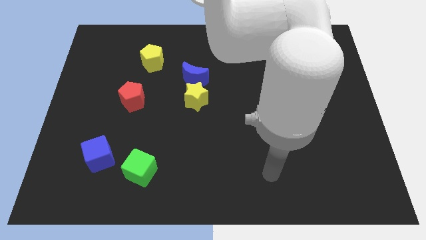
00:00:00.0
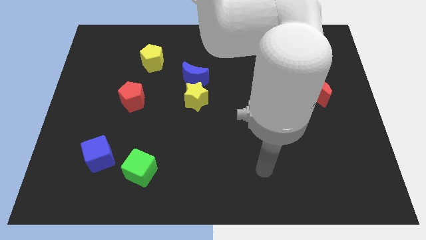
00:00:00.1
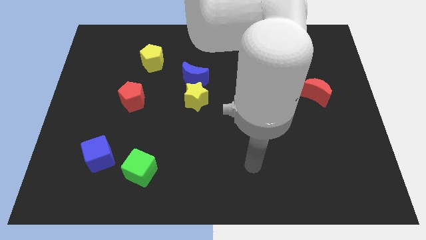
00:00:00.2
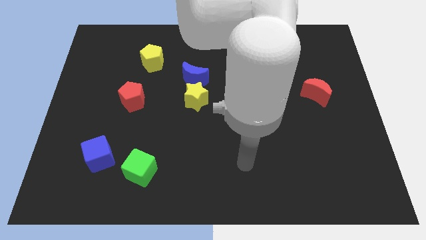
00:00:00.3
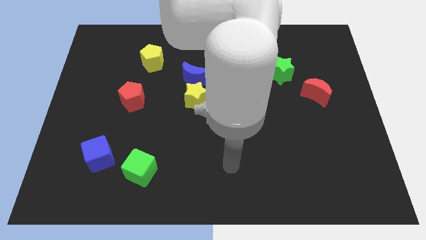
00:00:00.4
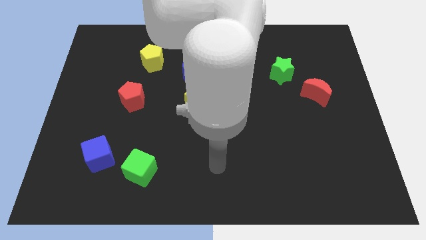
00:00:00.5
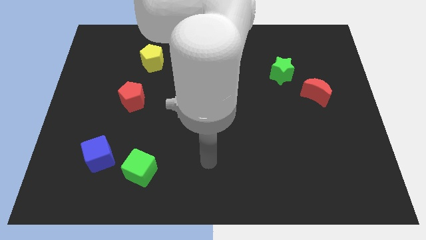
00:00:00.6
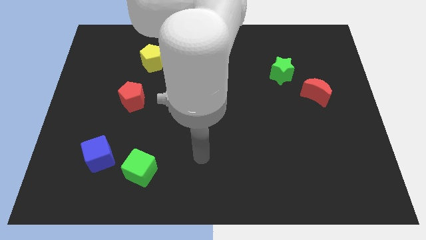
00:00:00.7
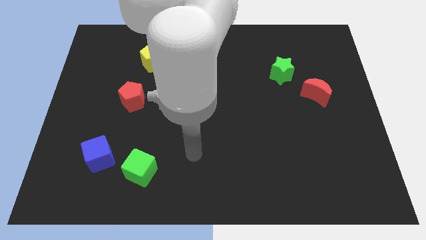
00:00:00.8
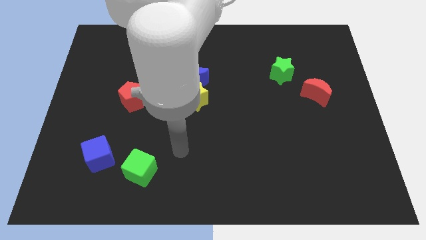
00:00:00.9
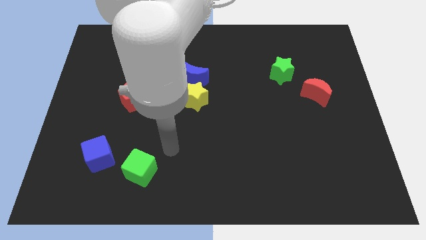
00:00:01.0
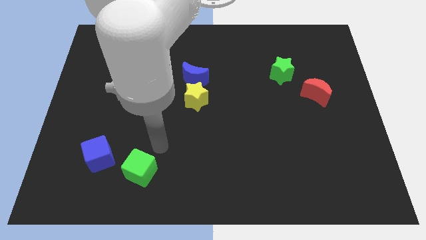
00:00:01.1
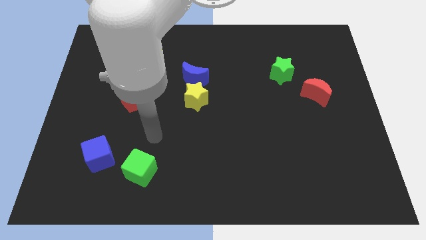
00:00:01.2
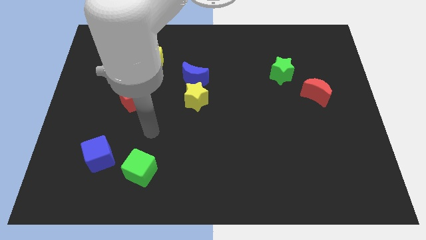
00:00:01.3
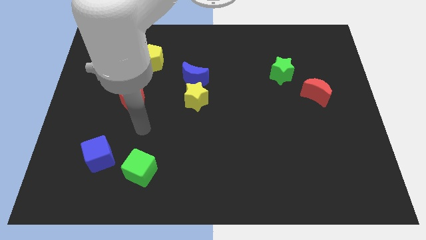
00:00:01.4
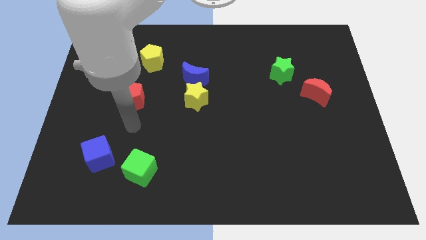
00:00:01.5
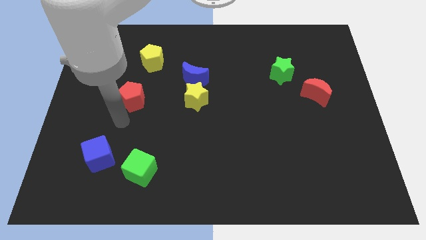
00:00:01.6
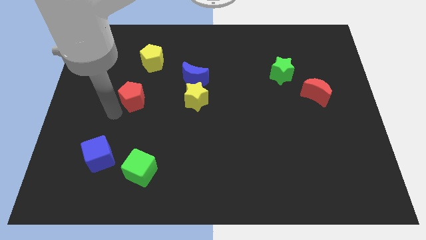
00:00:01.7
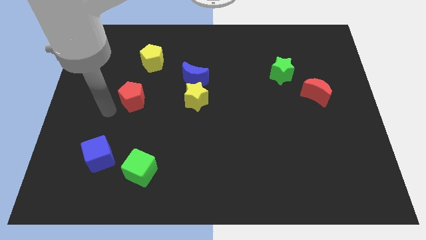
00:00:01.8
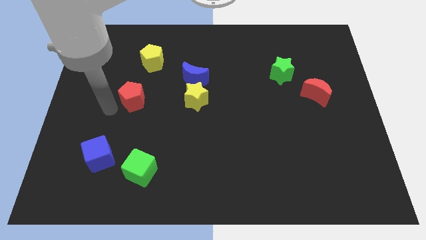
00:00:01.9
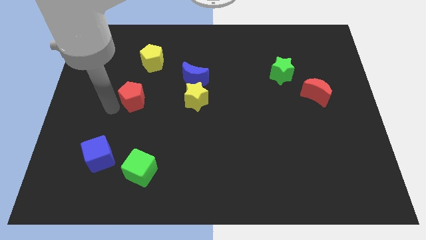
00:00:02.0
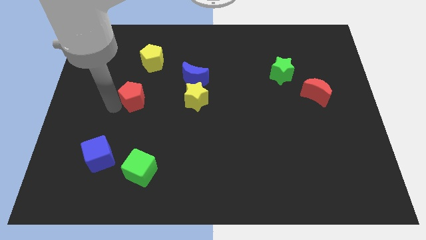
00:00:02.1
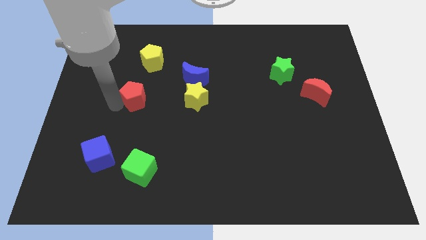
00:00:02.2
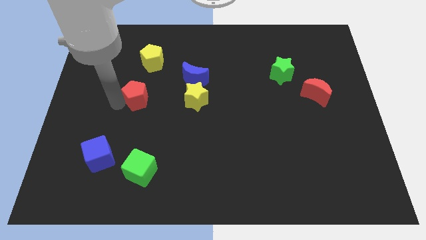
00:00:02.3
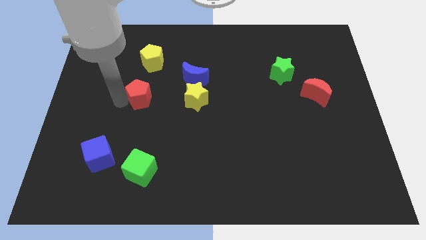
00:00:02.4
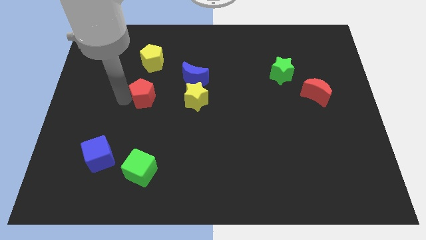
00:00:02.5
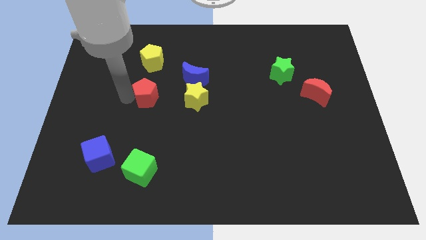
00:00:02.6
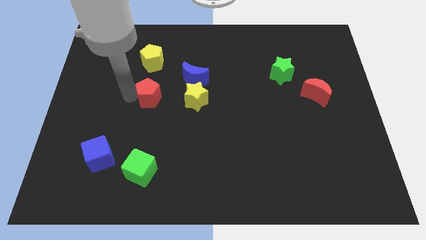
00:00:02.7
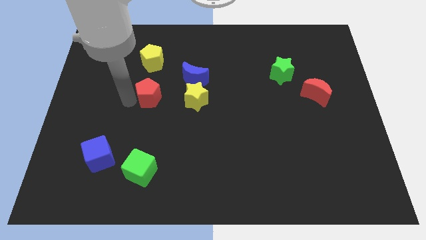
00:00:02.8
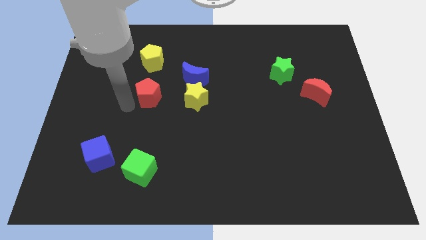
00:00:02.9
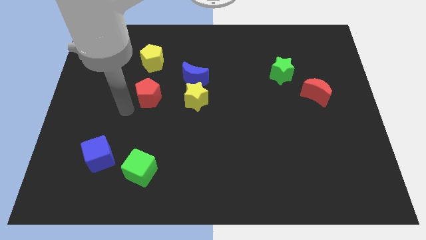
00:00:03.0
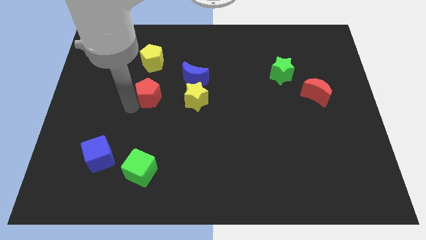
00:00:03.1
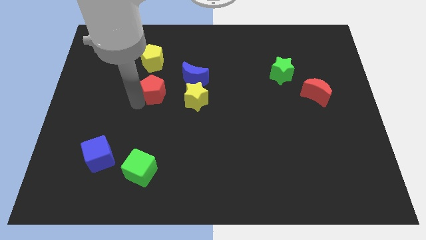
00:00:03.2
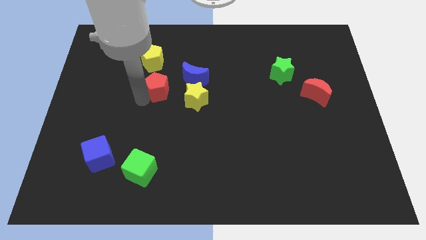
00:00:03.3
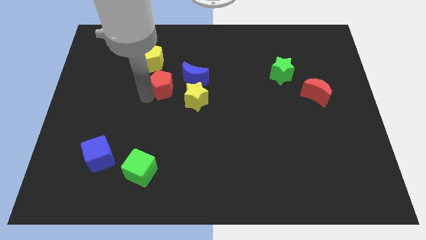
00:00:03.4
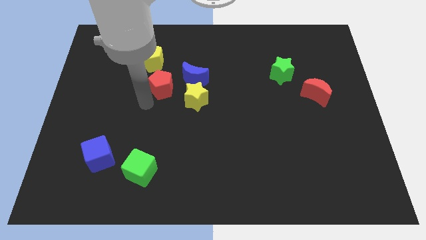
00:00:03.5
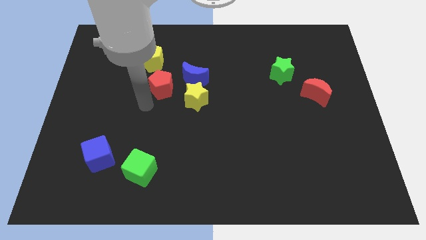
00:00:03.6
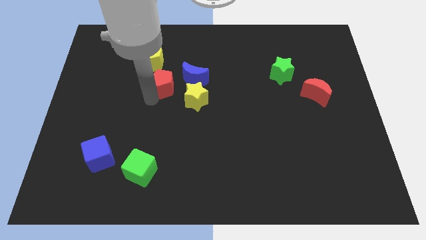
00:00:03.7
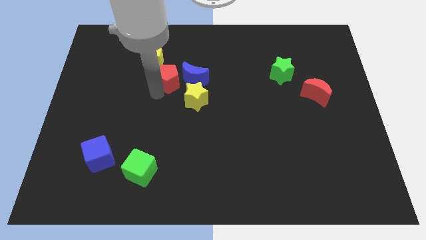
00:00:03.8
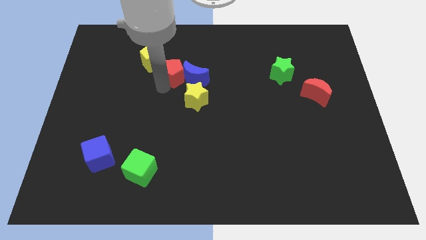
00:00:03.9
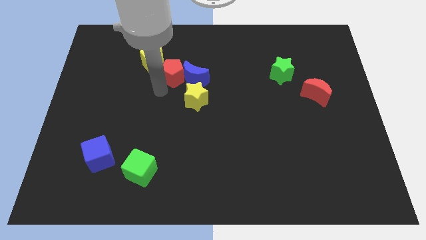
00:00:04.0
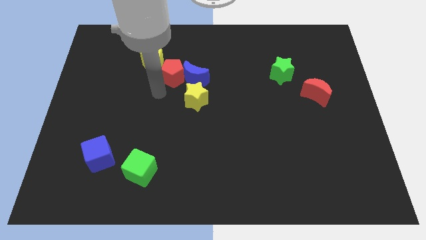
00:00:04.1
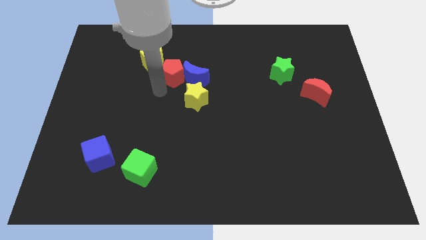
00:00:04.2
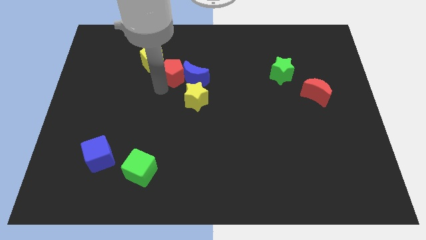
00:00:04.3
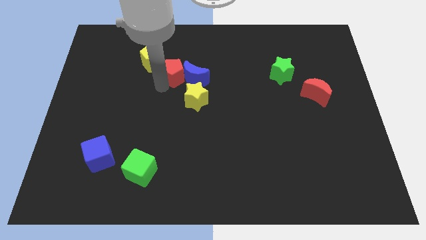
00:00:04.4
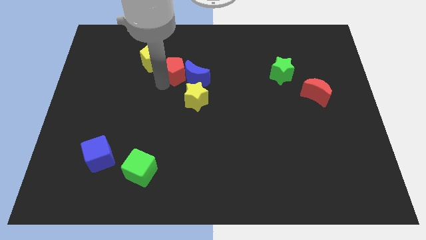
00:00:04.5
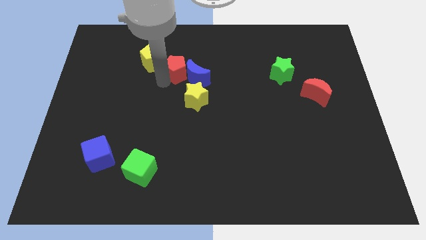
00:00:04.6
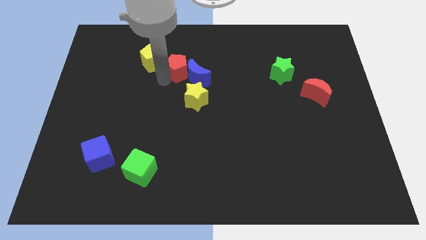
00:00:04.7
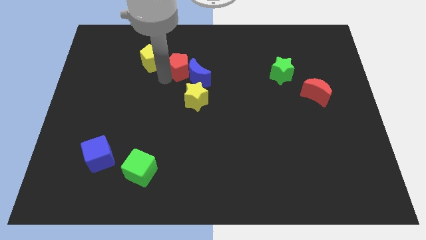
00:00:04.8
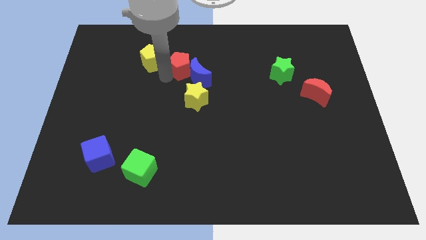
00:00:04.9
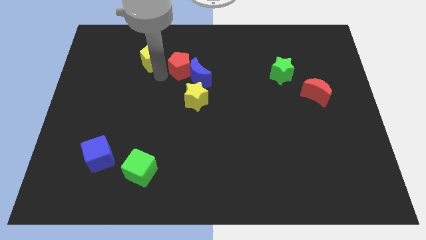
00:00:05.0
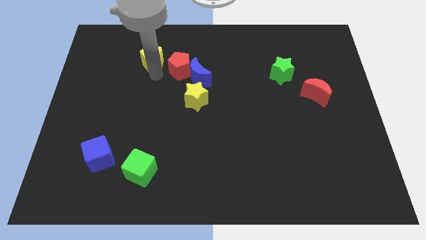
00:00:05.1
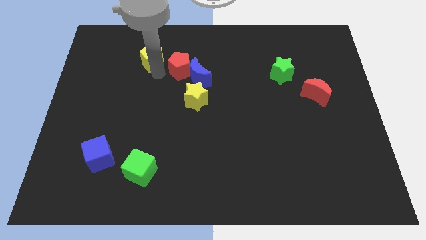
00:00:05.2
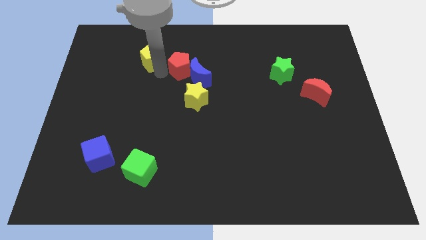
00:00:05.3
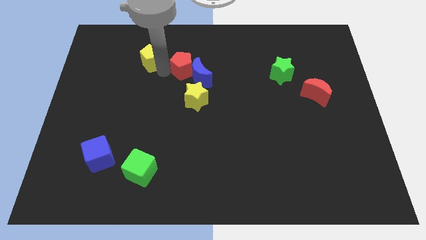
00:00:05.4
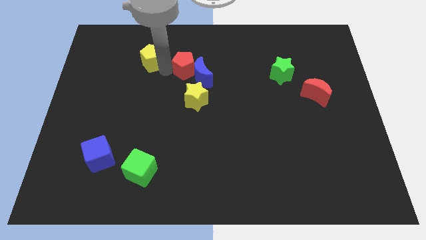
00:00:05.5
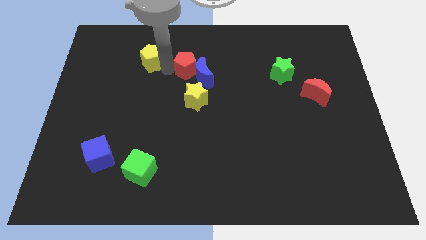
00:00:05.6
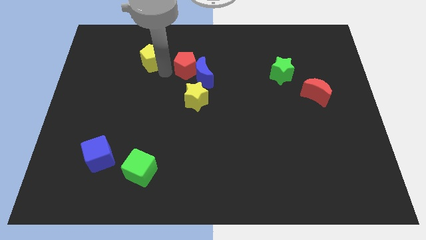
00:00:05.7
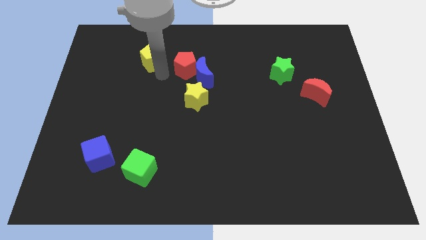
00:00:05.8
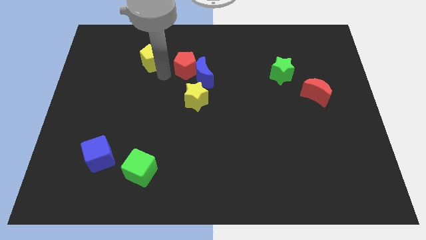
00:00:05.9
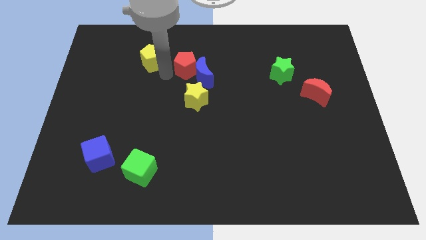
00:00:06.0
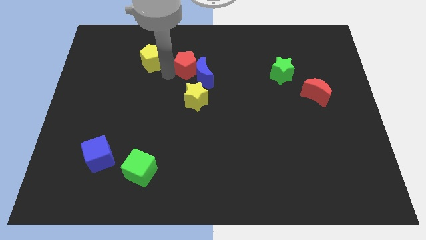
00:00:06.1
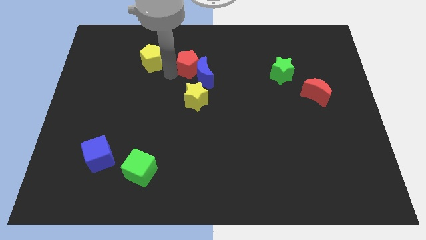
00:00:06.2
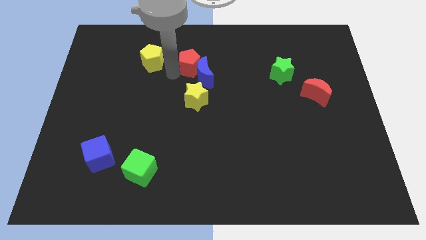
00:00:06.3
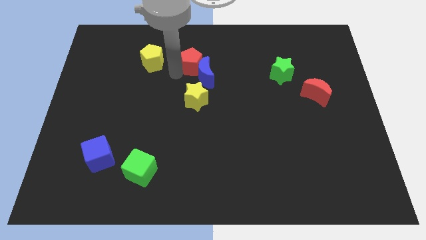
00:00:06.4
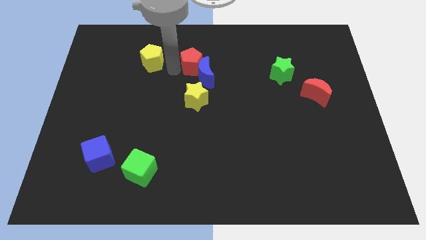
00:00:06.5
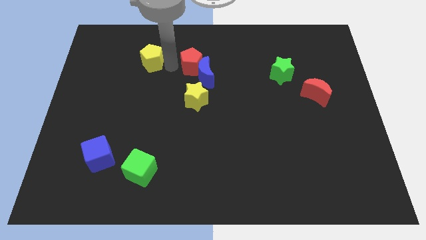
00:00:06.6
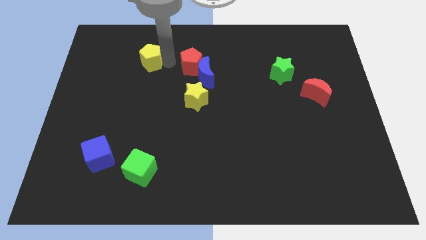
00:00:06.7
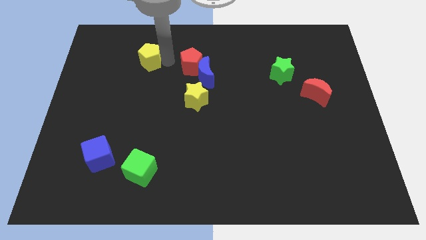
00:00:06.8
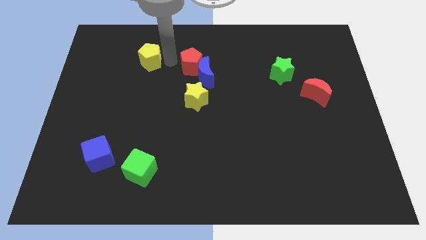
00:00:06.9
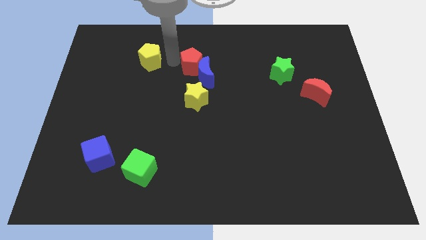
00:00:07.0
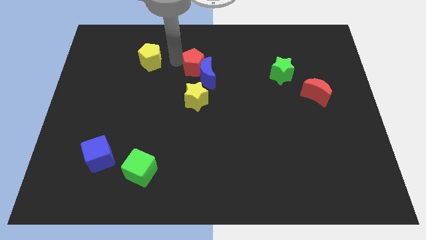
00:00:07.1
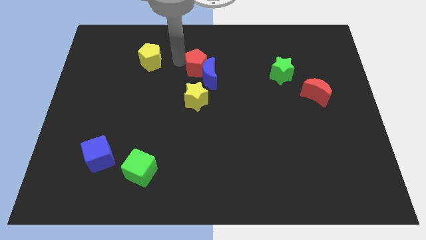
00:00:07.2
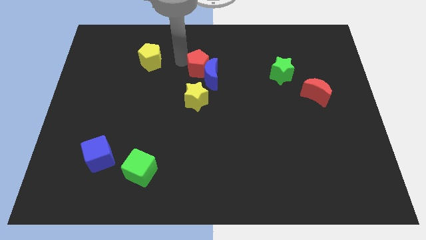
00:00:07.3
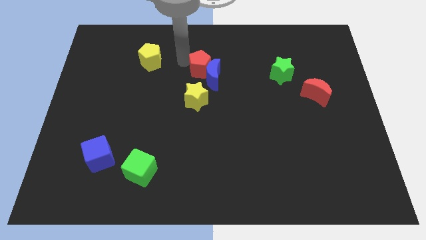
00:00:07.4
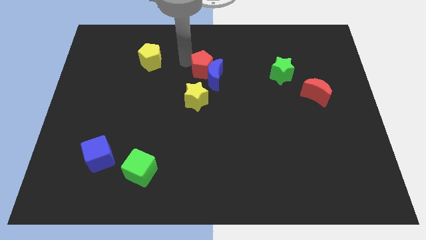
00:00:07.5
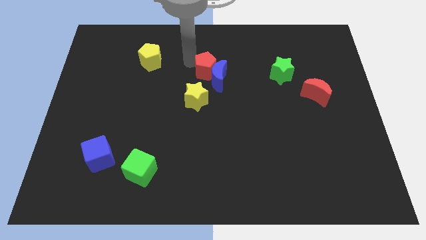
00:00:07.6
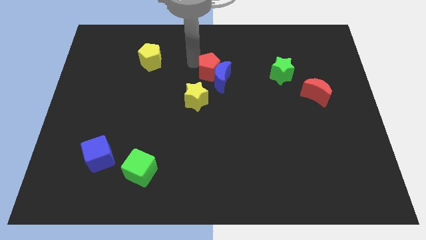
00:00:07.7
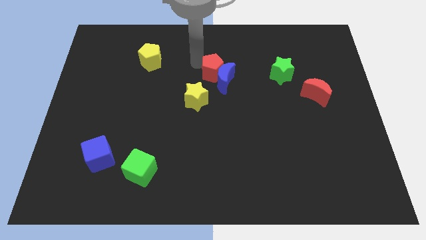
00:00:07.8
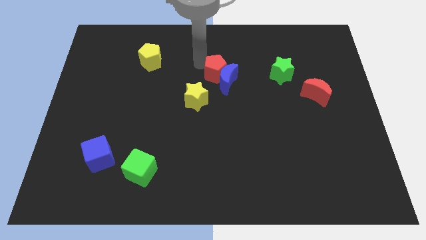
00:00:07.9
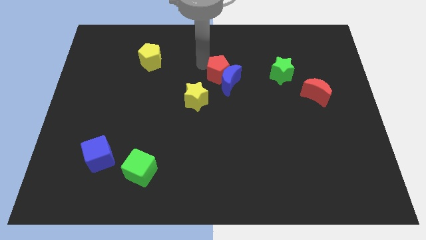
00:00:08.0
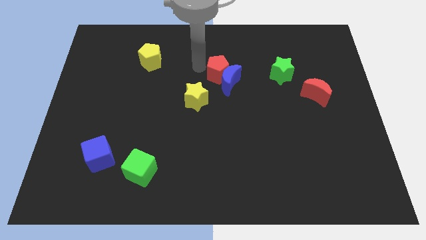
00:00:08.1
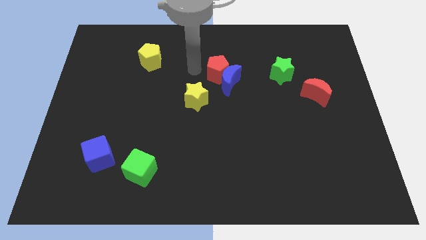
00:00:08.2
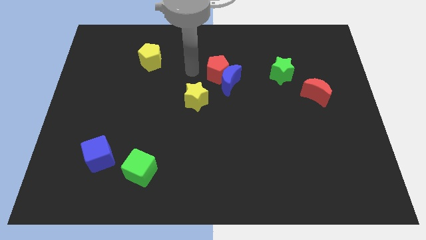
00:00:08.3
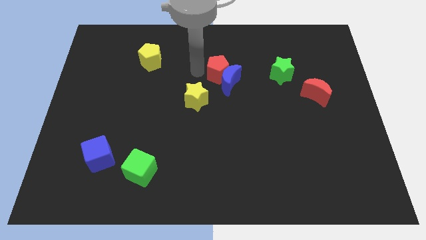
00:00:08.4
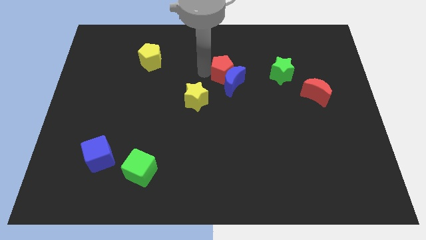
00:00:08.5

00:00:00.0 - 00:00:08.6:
slide the red pentagon to the left of the green star
